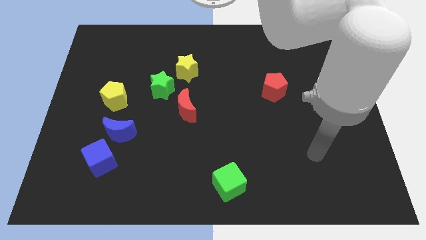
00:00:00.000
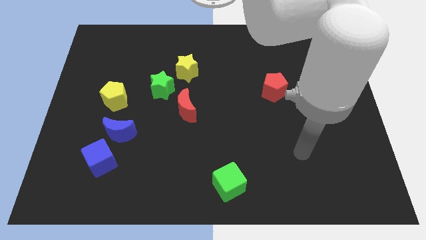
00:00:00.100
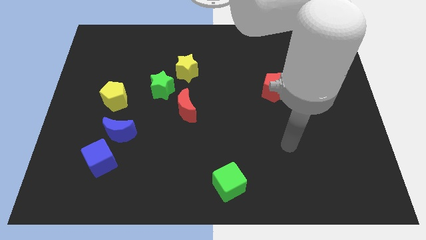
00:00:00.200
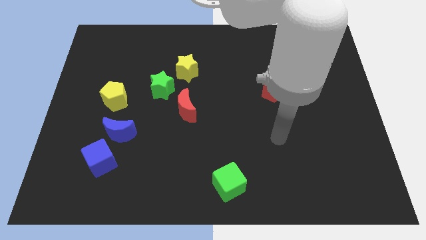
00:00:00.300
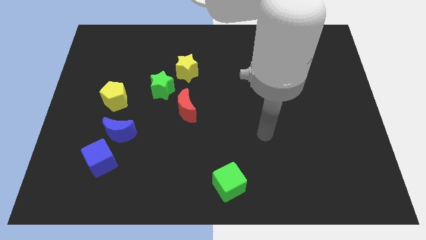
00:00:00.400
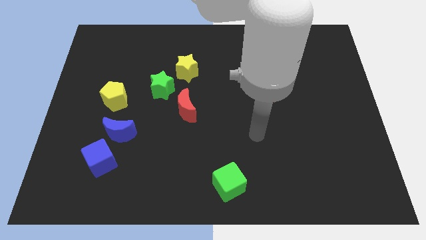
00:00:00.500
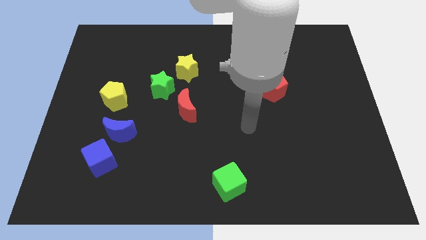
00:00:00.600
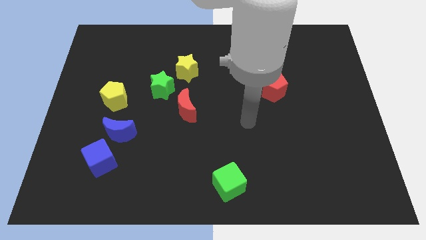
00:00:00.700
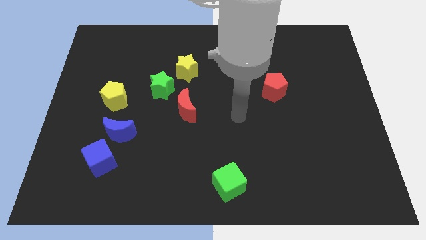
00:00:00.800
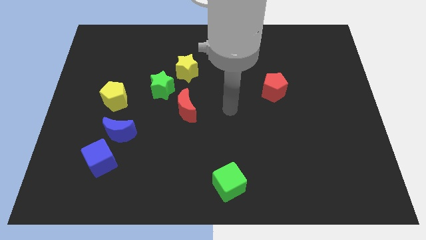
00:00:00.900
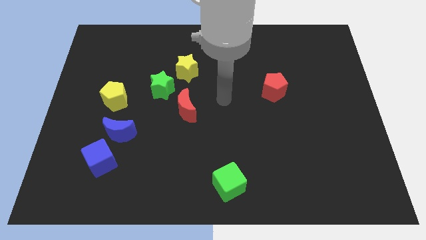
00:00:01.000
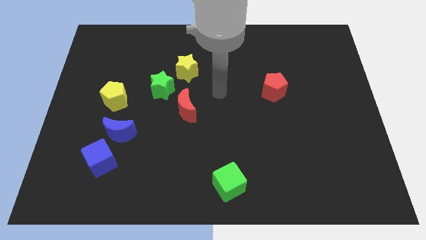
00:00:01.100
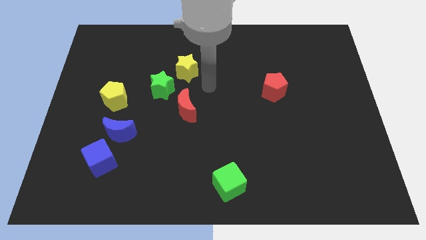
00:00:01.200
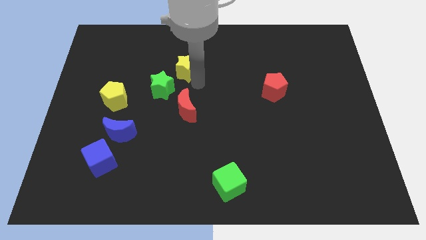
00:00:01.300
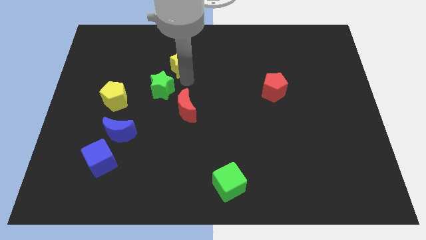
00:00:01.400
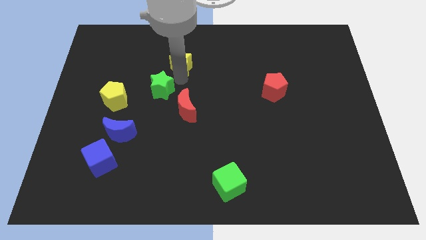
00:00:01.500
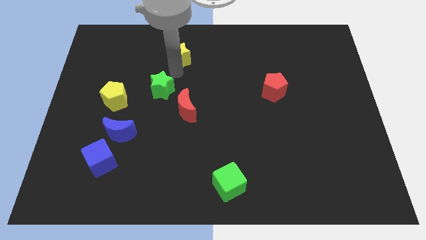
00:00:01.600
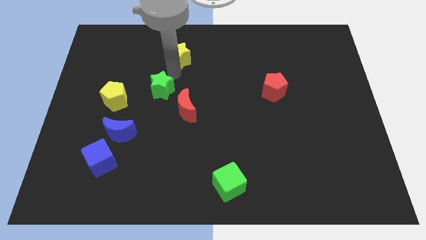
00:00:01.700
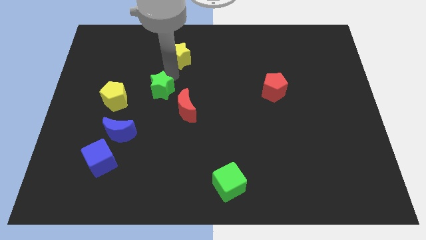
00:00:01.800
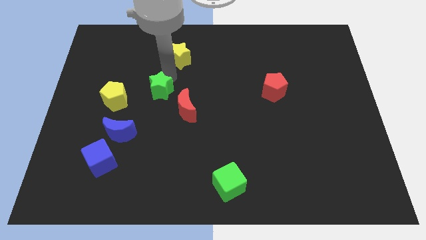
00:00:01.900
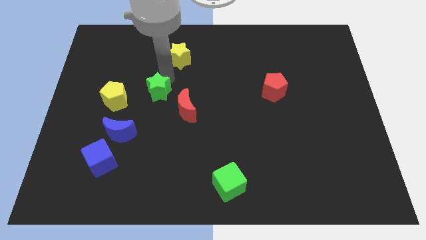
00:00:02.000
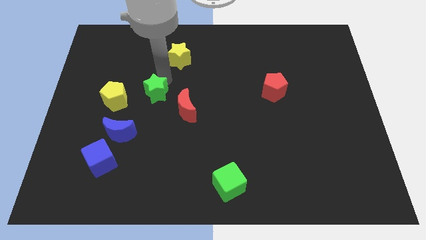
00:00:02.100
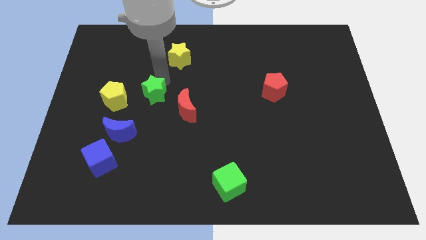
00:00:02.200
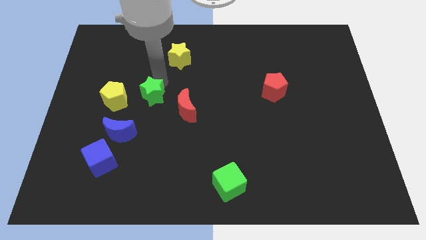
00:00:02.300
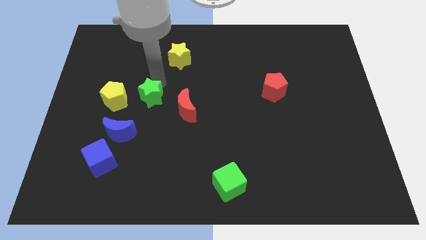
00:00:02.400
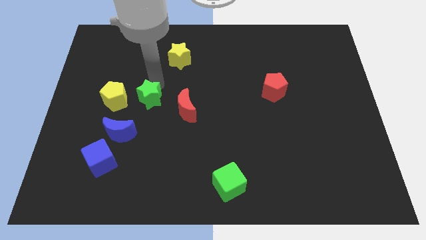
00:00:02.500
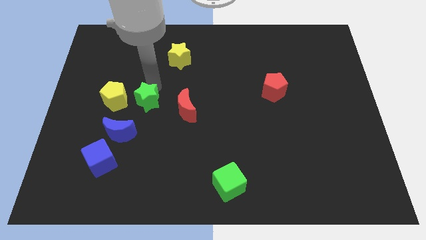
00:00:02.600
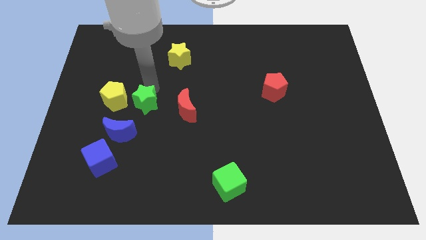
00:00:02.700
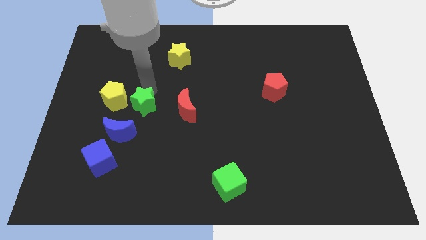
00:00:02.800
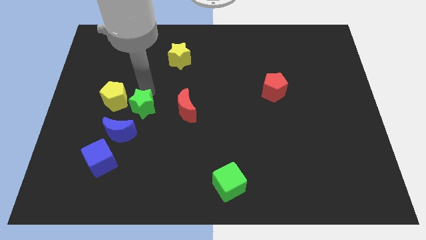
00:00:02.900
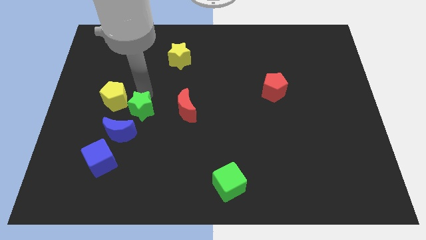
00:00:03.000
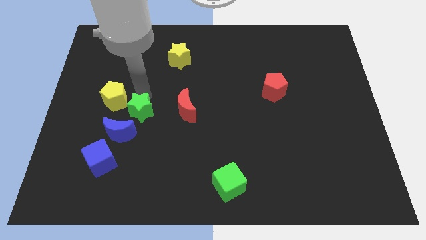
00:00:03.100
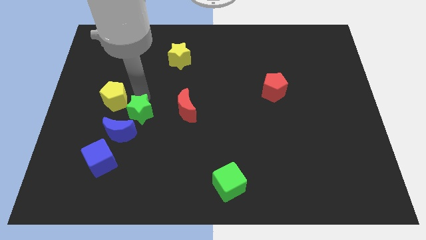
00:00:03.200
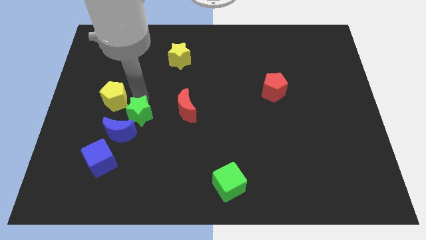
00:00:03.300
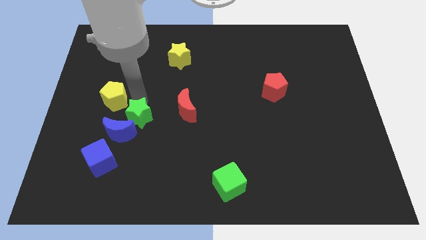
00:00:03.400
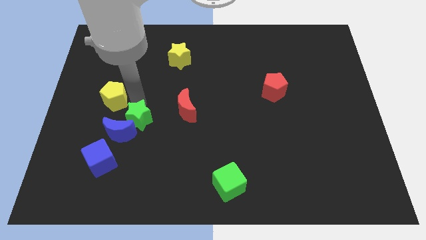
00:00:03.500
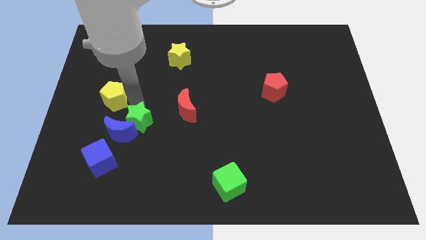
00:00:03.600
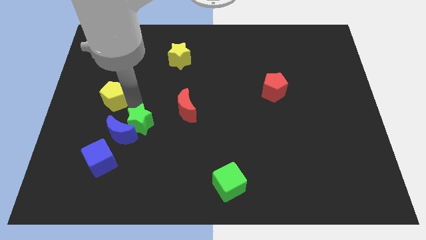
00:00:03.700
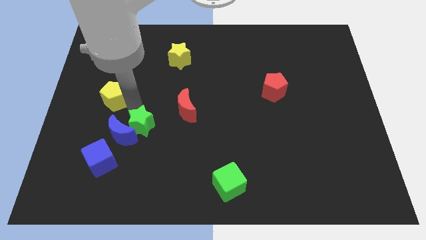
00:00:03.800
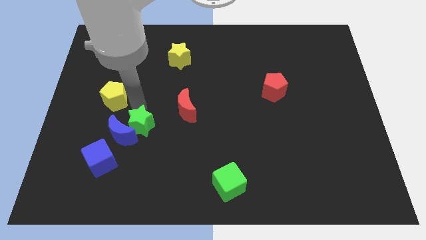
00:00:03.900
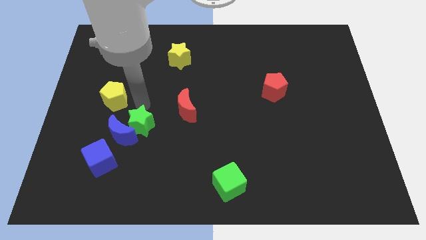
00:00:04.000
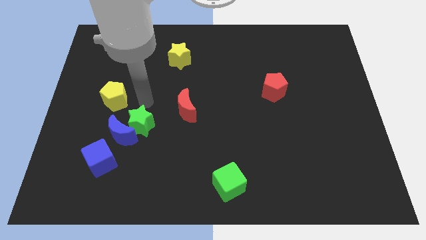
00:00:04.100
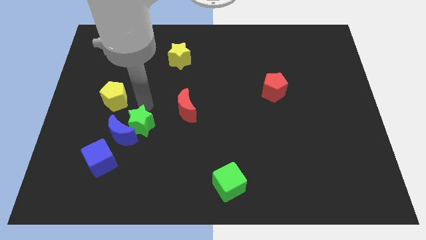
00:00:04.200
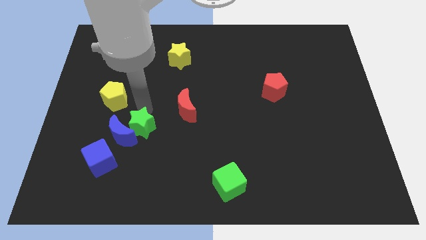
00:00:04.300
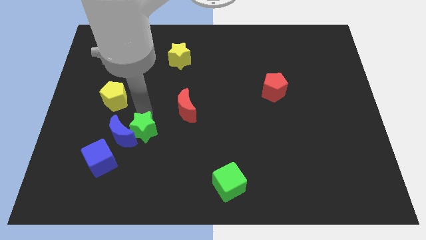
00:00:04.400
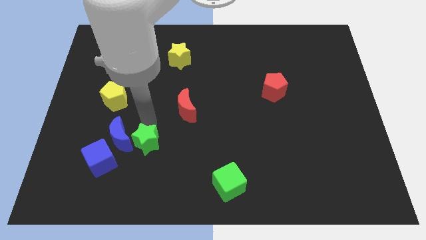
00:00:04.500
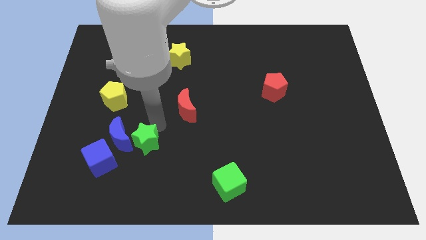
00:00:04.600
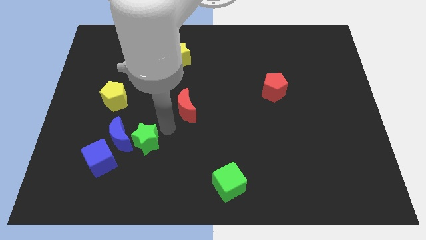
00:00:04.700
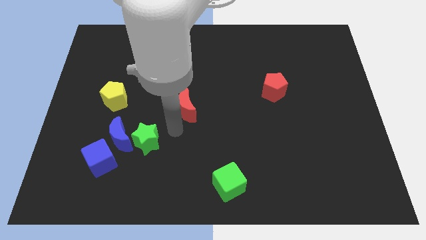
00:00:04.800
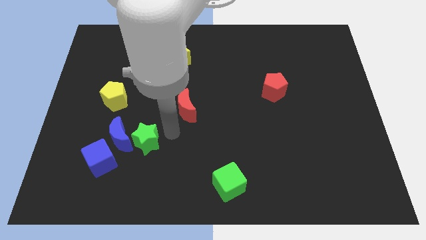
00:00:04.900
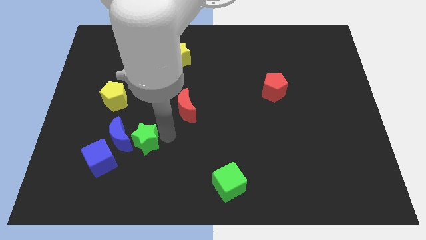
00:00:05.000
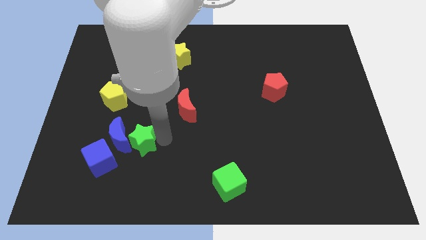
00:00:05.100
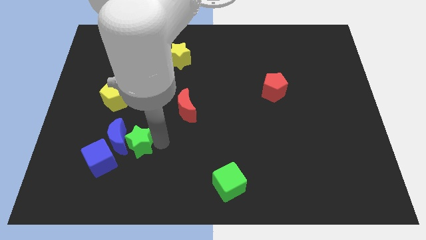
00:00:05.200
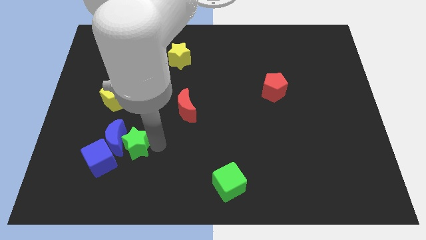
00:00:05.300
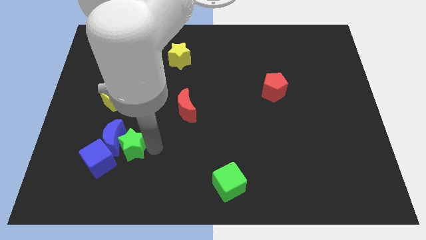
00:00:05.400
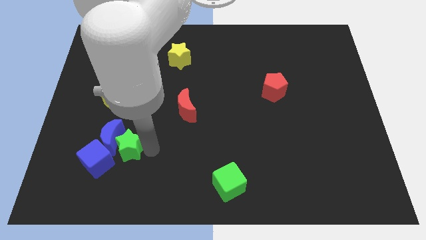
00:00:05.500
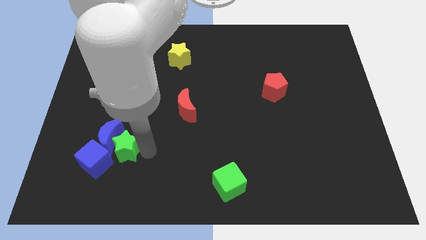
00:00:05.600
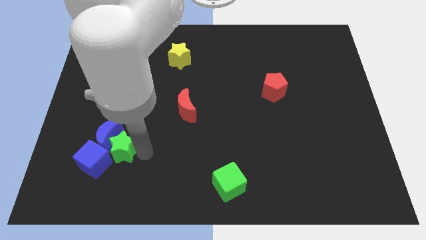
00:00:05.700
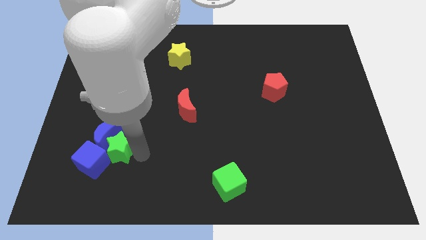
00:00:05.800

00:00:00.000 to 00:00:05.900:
push the green star to the blue cube

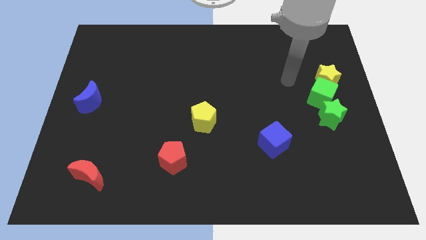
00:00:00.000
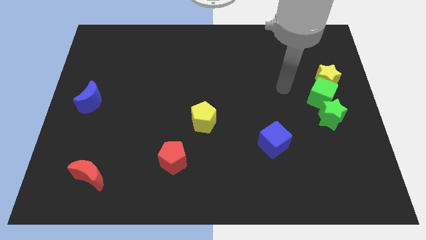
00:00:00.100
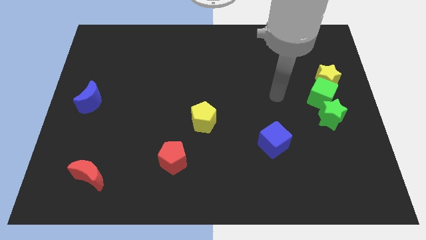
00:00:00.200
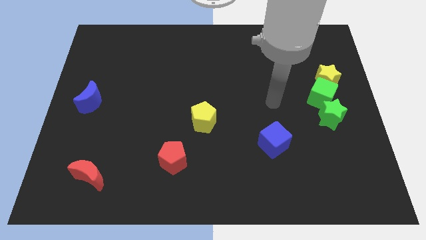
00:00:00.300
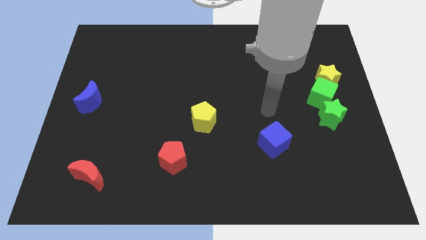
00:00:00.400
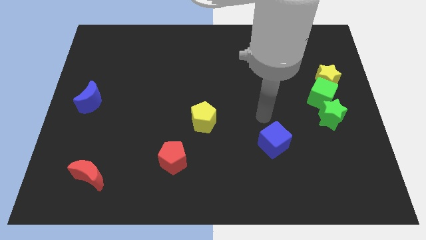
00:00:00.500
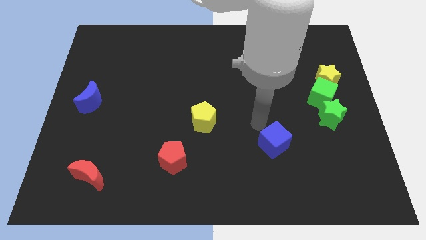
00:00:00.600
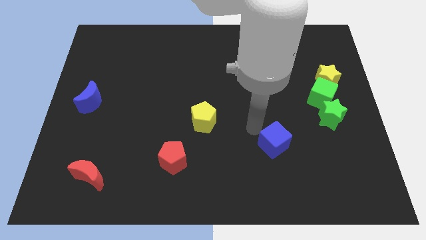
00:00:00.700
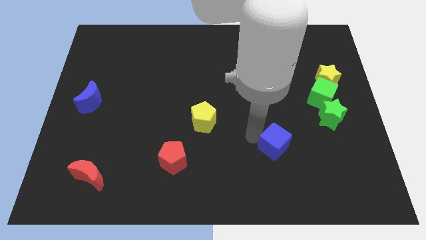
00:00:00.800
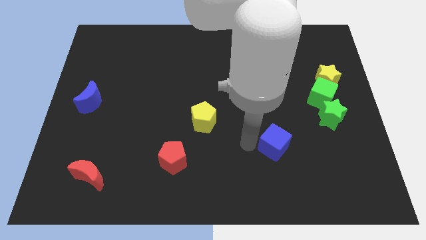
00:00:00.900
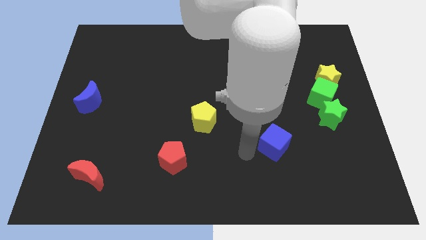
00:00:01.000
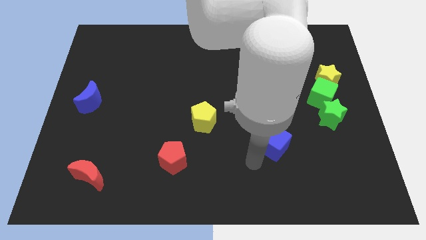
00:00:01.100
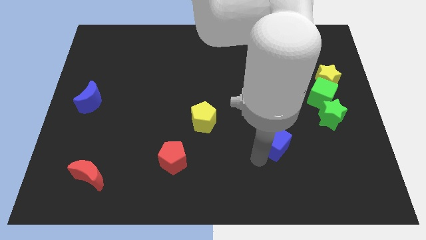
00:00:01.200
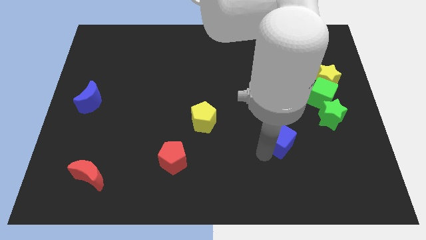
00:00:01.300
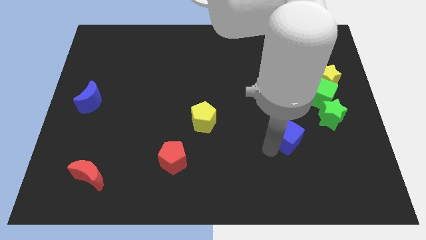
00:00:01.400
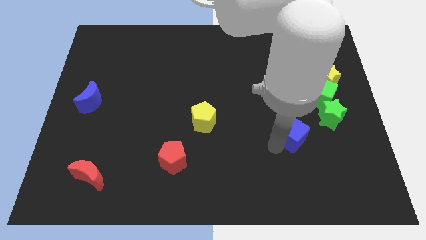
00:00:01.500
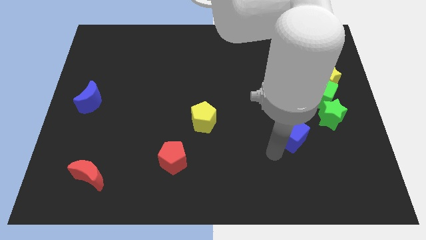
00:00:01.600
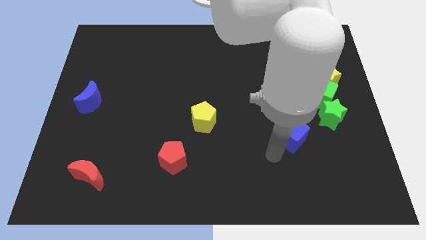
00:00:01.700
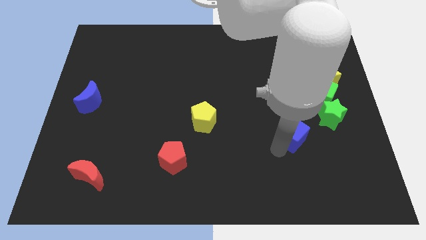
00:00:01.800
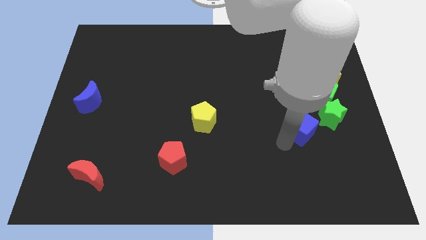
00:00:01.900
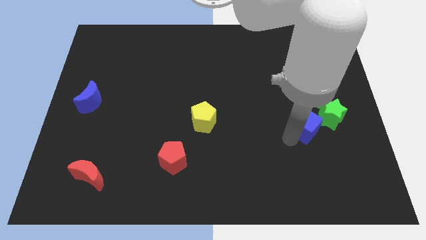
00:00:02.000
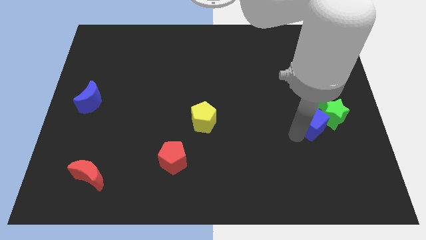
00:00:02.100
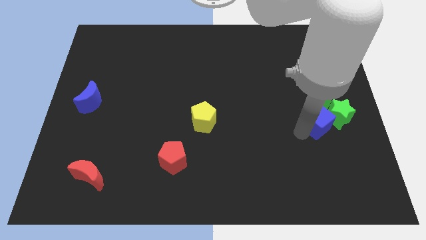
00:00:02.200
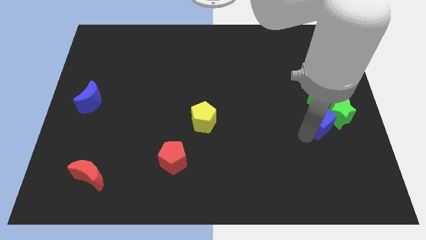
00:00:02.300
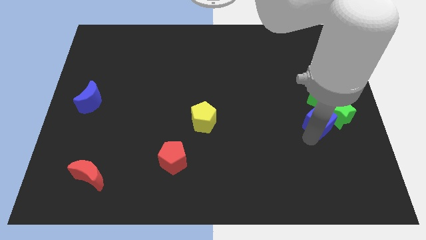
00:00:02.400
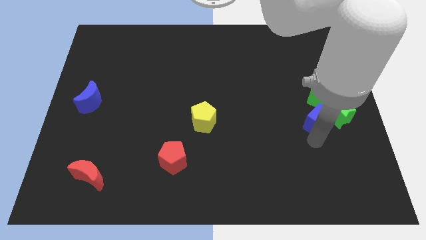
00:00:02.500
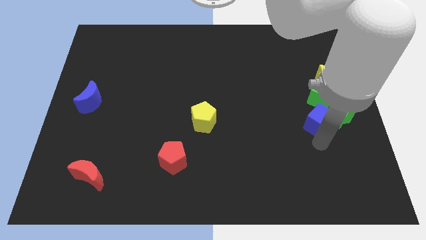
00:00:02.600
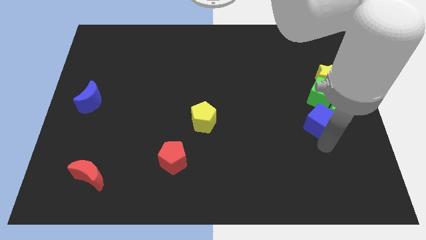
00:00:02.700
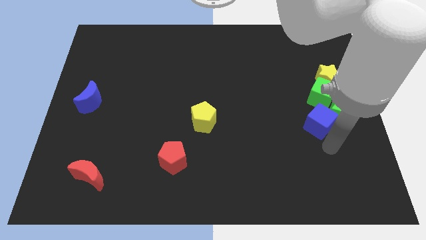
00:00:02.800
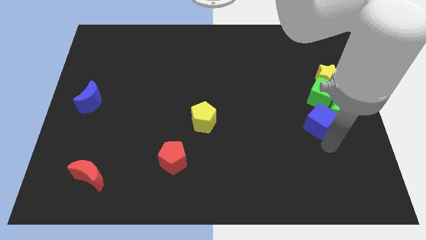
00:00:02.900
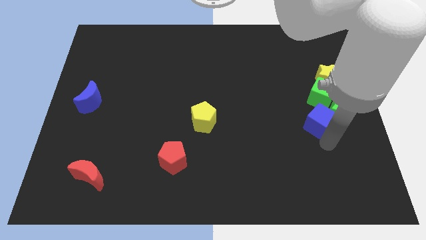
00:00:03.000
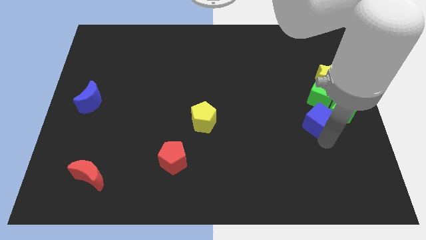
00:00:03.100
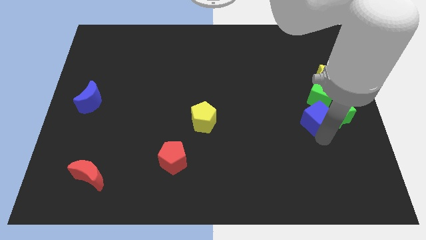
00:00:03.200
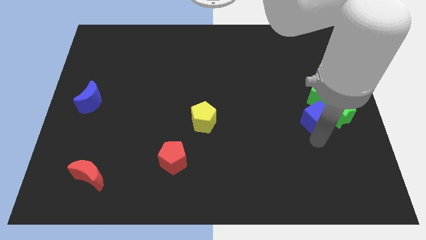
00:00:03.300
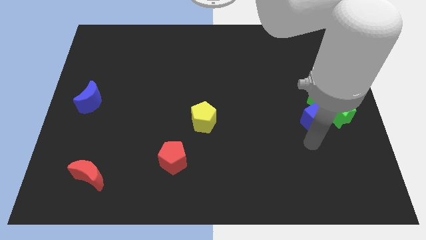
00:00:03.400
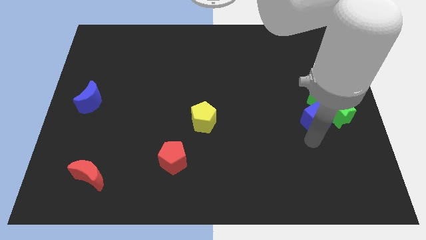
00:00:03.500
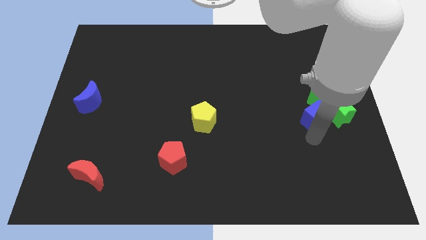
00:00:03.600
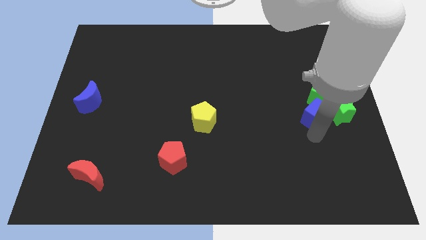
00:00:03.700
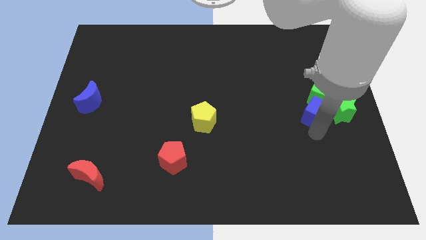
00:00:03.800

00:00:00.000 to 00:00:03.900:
slide the blue cube close to the green cube
